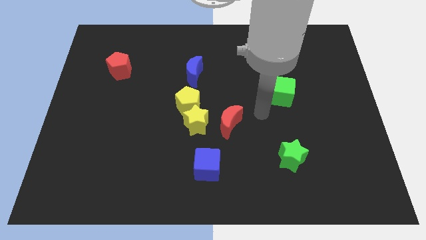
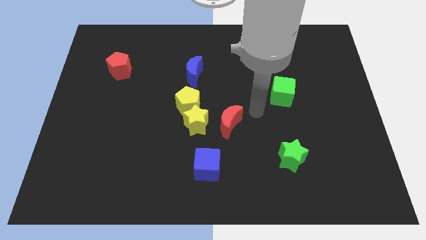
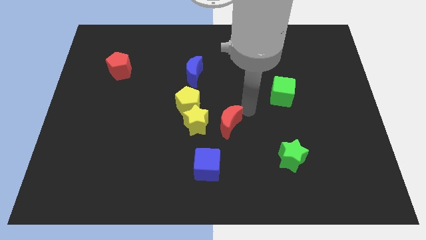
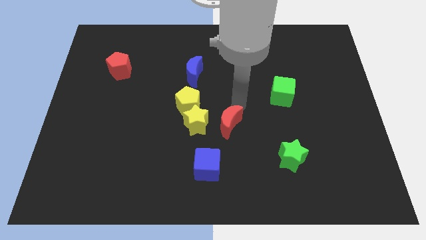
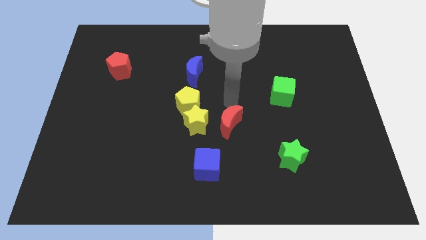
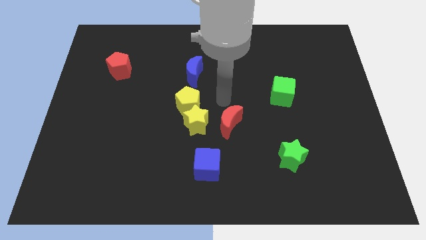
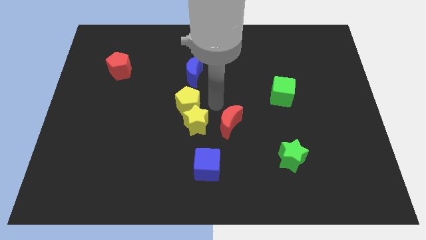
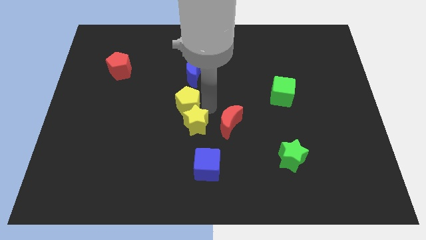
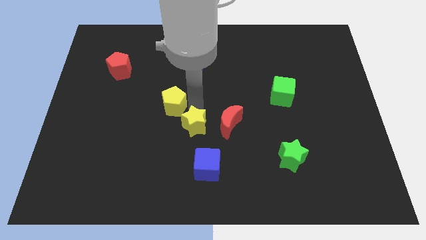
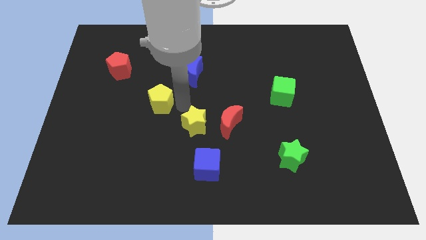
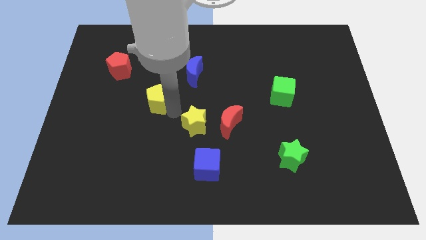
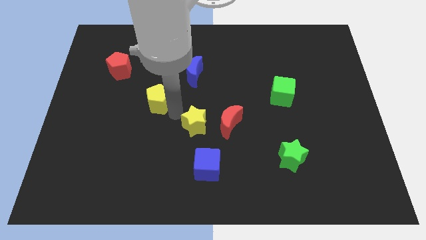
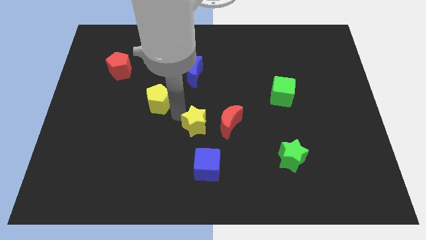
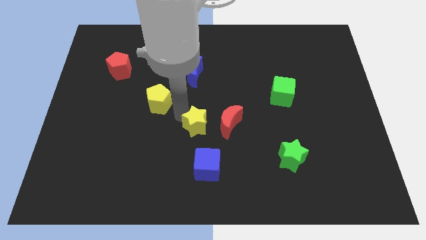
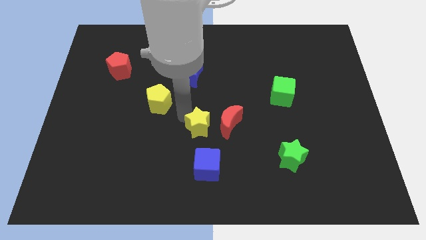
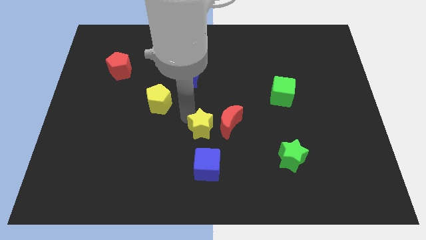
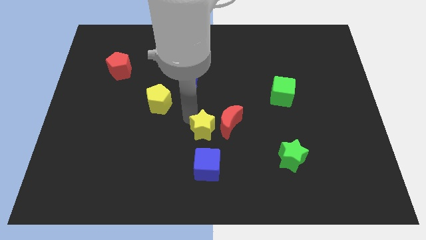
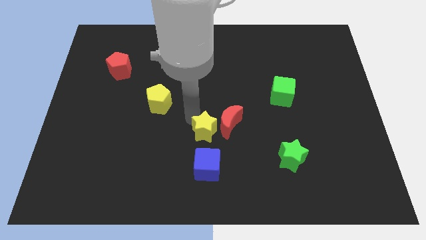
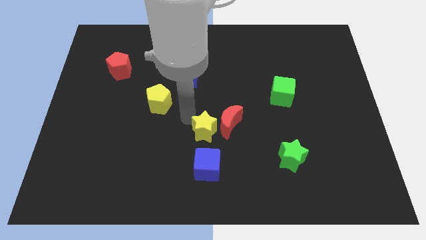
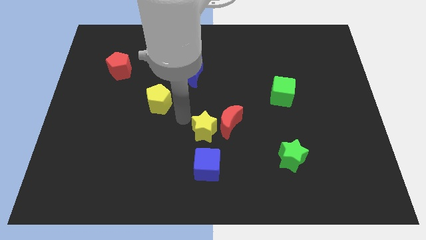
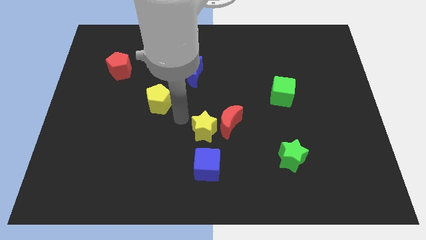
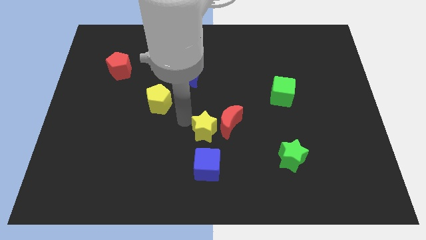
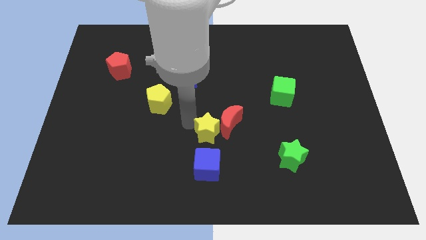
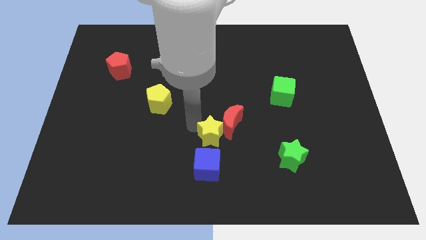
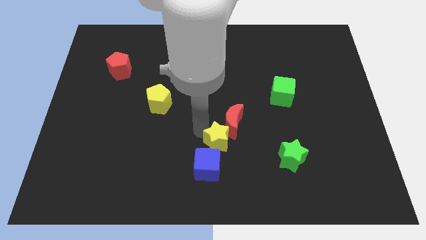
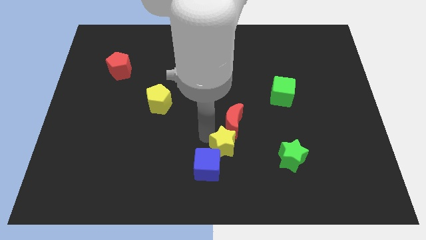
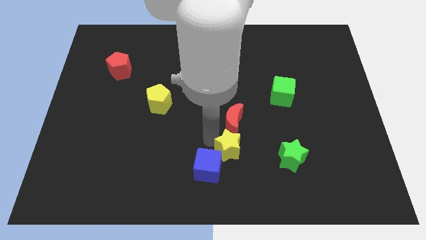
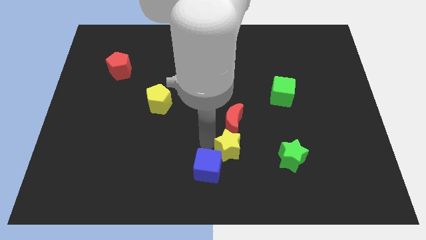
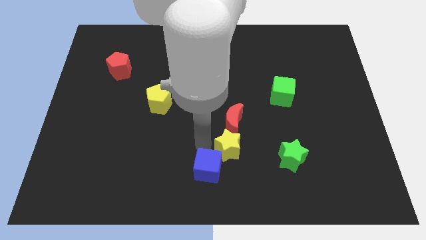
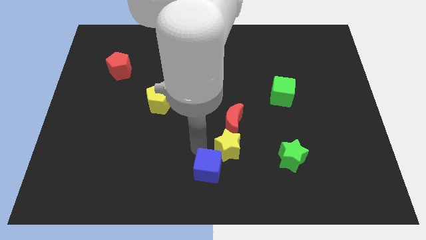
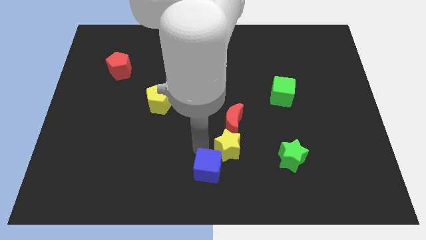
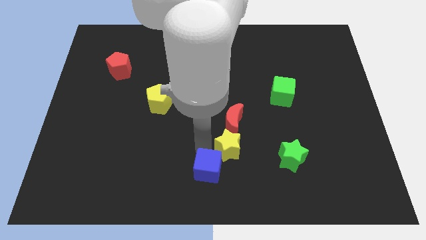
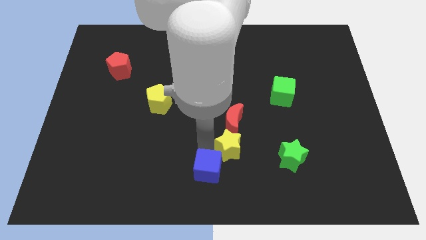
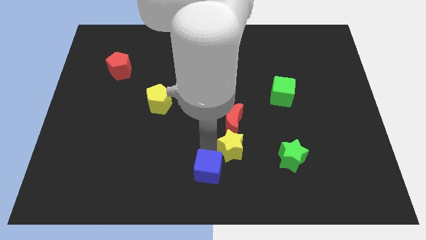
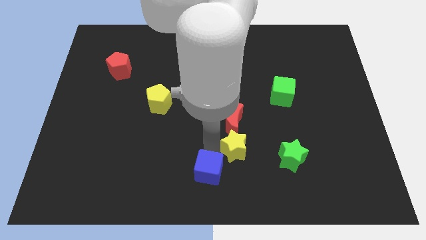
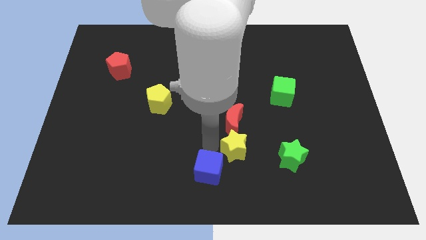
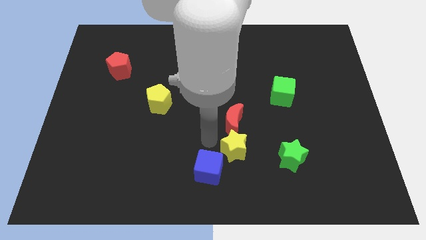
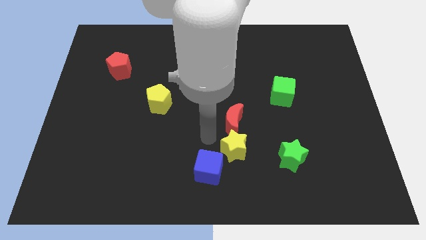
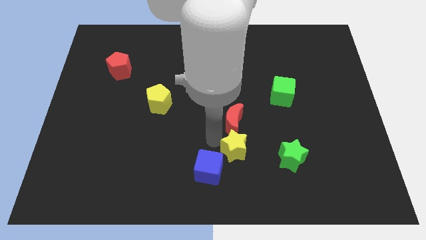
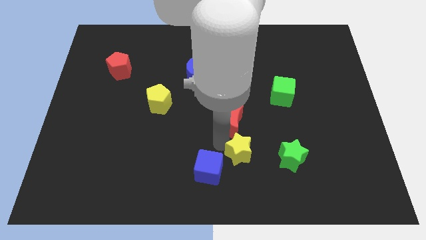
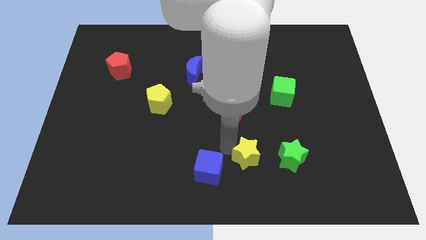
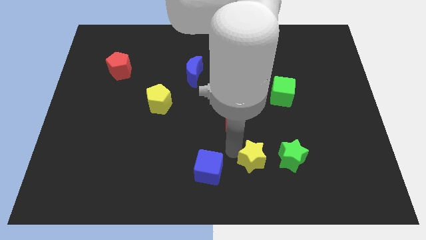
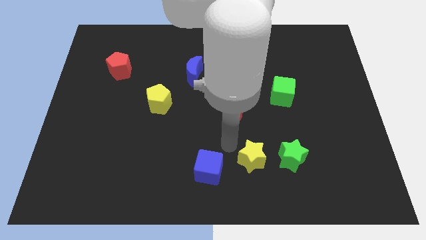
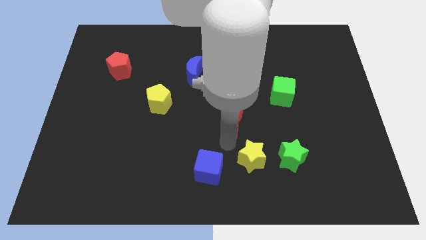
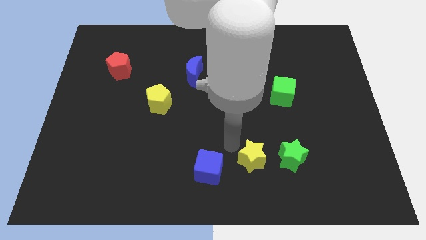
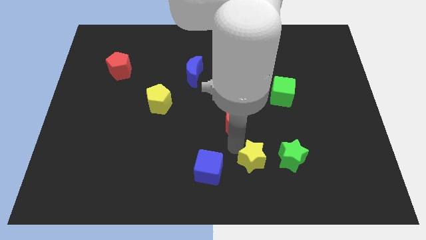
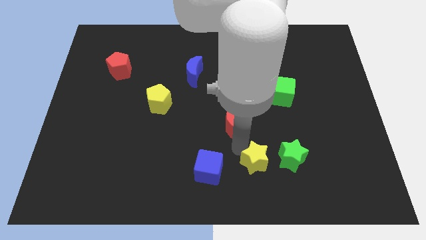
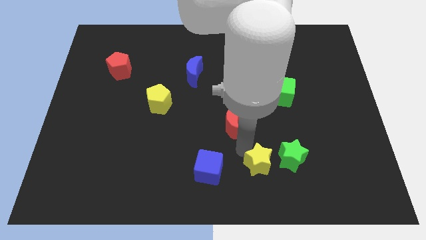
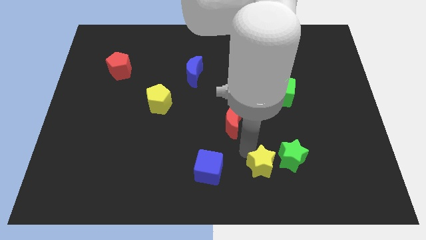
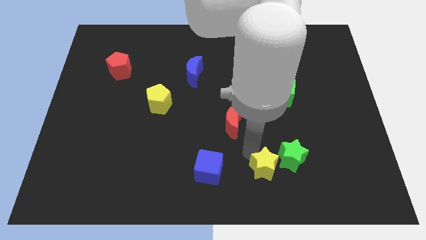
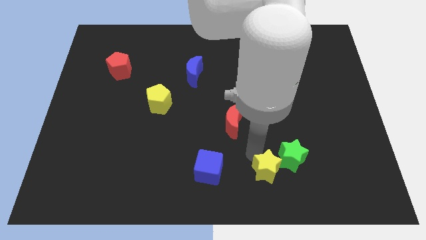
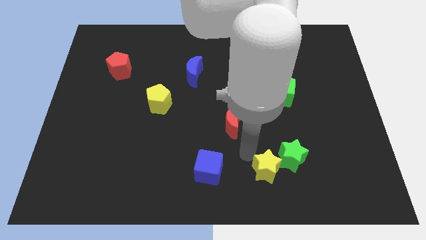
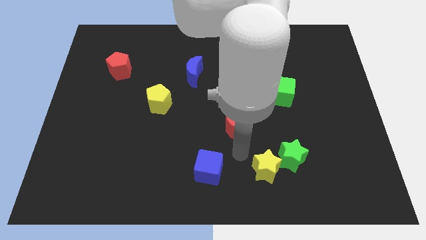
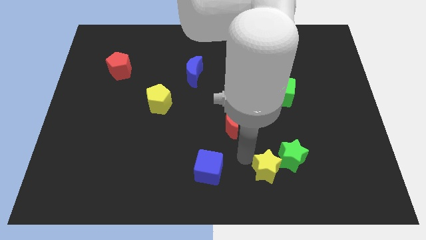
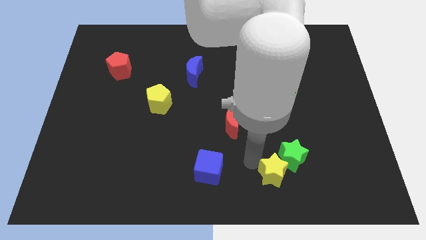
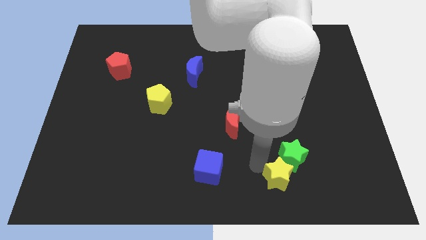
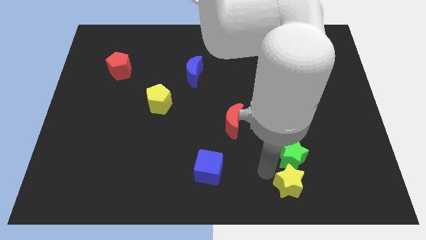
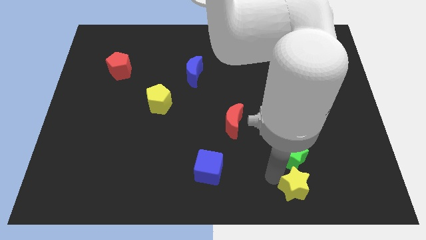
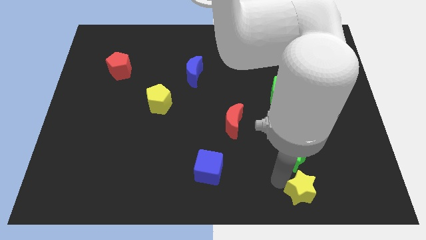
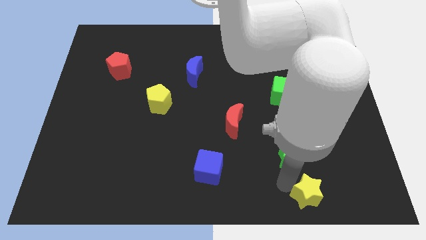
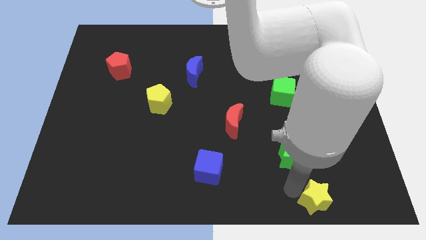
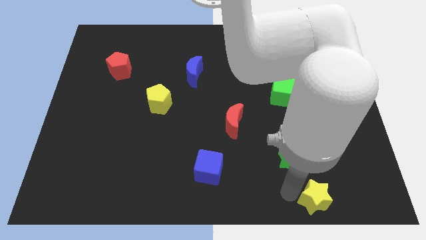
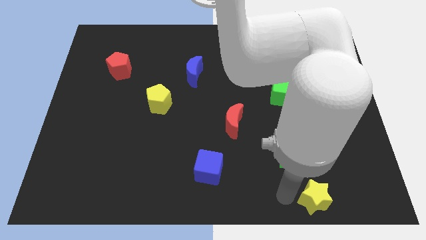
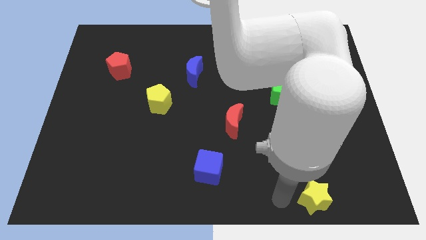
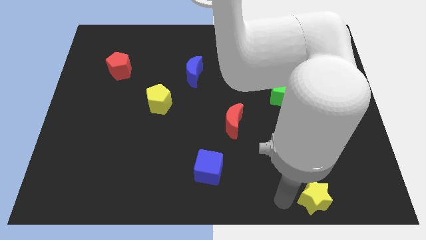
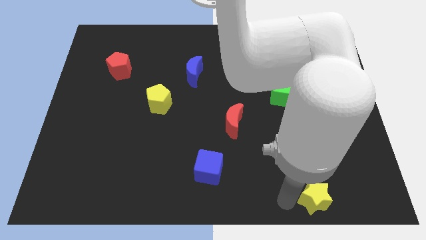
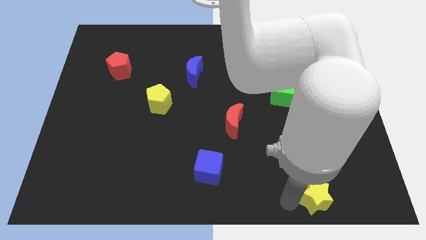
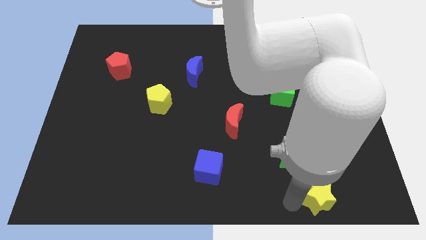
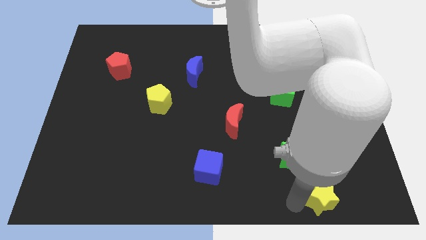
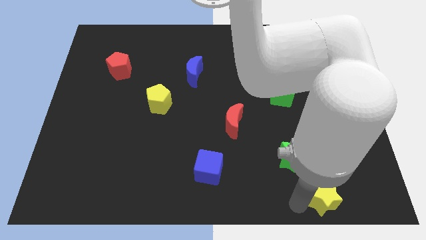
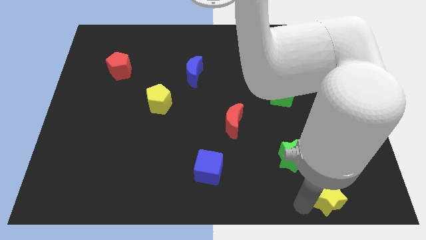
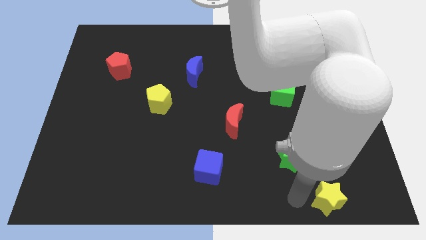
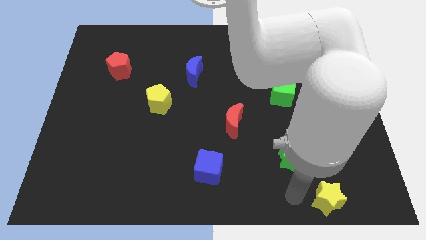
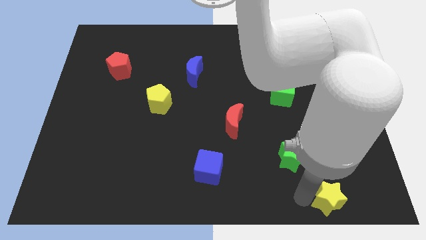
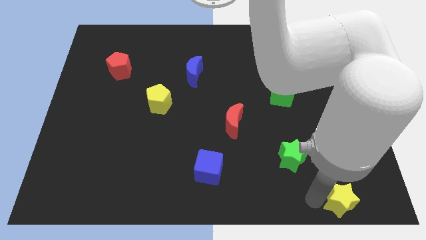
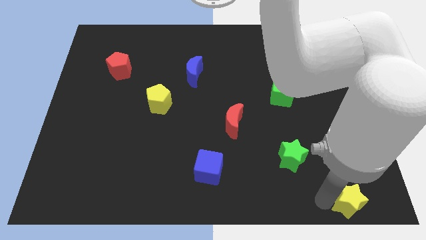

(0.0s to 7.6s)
push the yellow star to the bottom right corner
